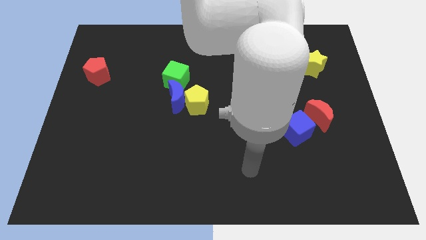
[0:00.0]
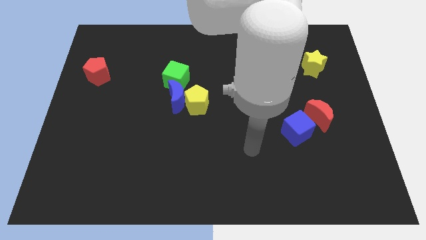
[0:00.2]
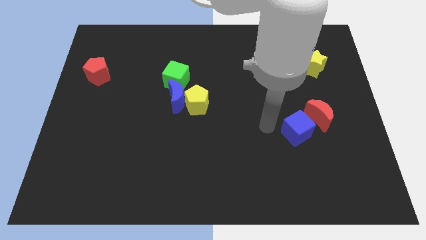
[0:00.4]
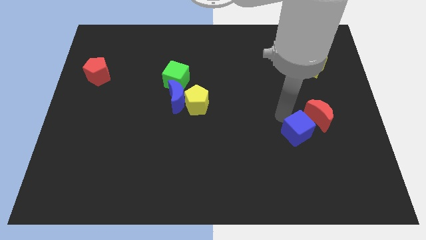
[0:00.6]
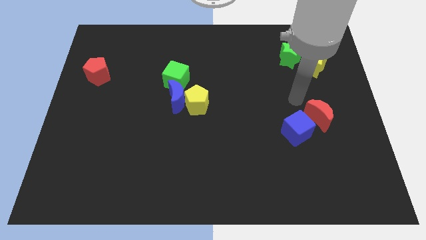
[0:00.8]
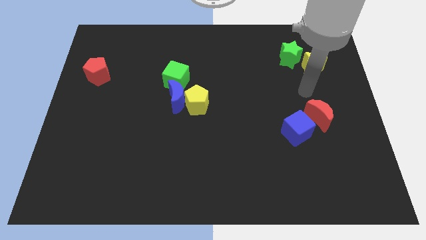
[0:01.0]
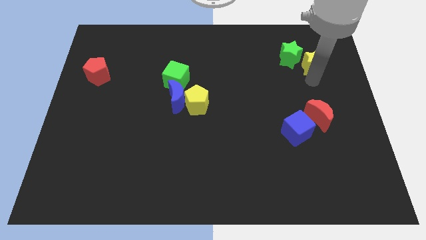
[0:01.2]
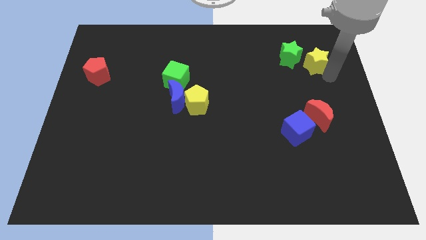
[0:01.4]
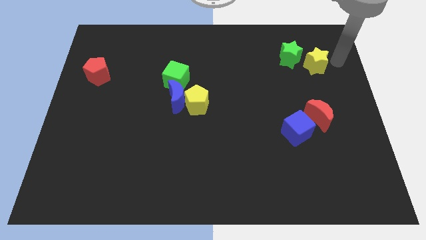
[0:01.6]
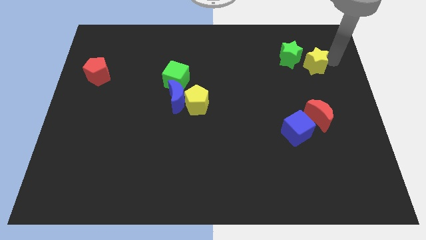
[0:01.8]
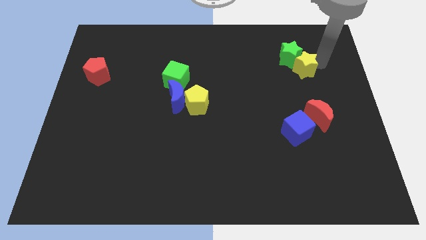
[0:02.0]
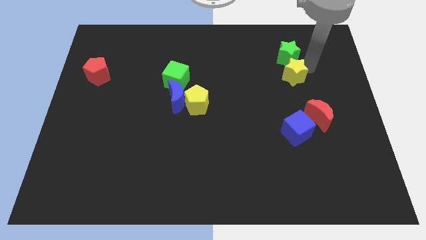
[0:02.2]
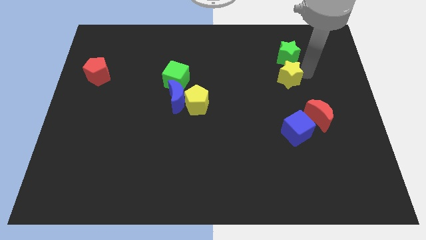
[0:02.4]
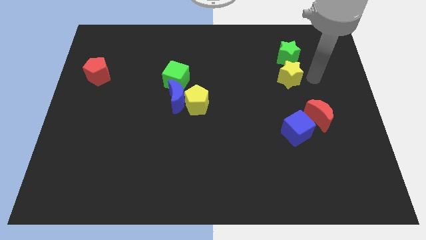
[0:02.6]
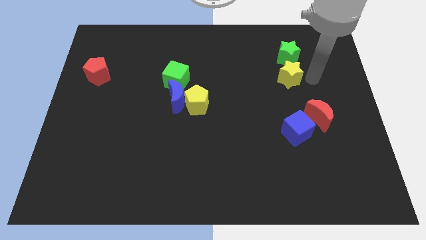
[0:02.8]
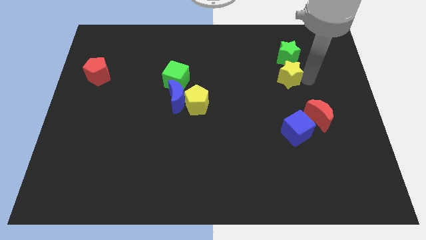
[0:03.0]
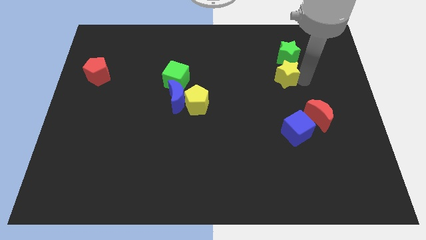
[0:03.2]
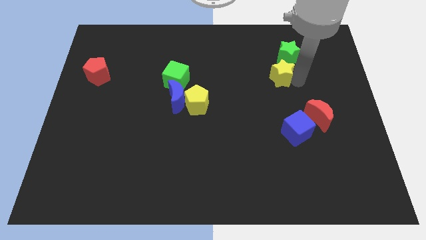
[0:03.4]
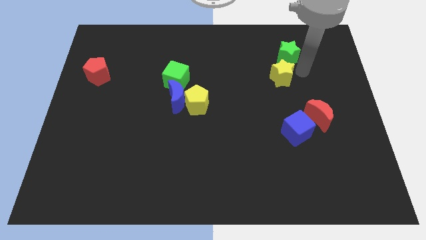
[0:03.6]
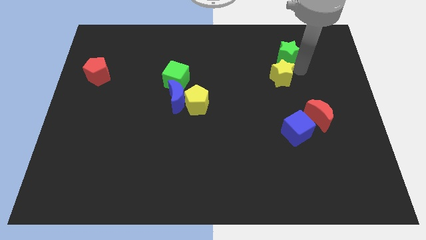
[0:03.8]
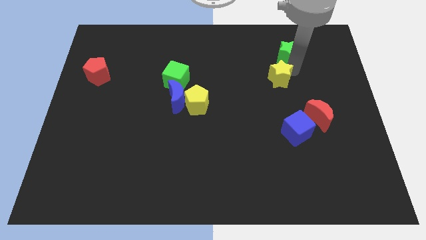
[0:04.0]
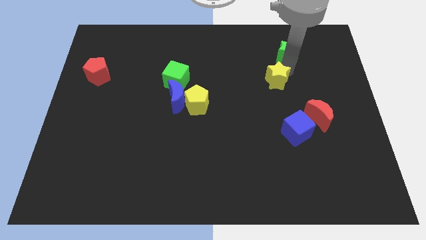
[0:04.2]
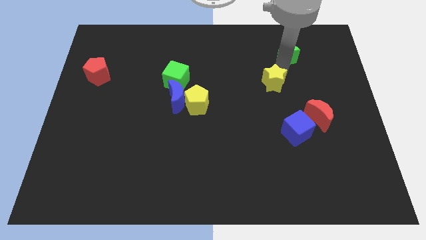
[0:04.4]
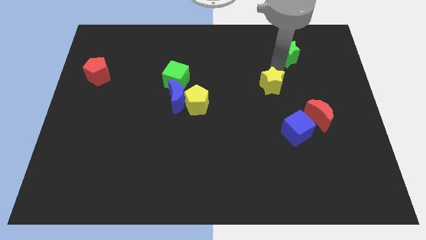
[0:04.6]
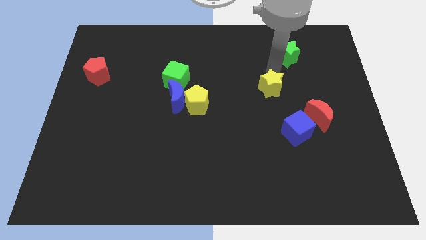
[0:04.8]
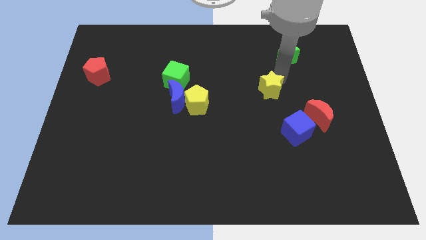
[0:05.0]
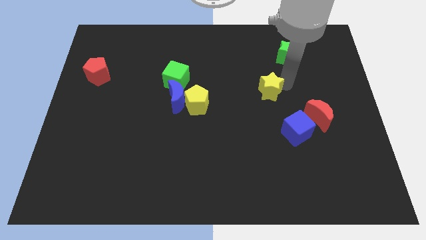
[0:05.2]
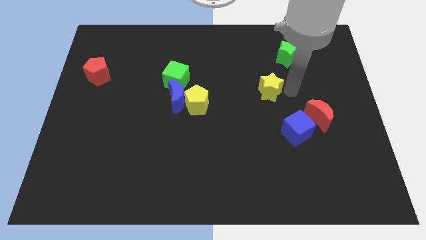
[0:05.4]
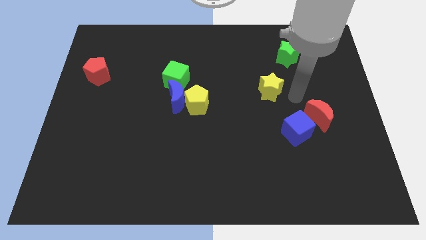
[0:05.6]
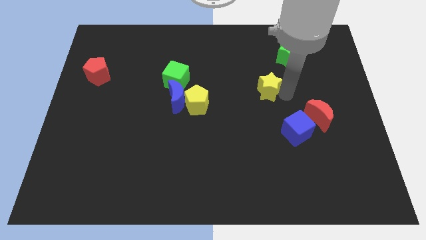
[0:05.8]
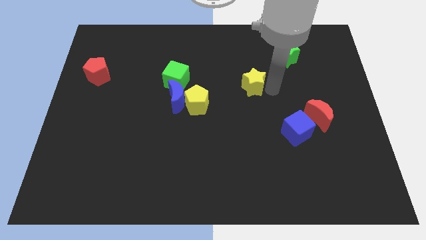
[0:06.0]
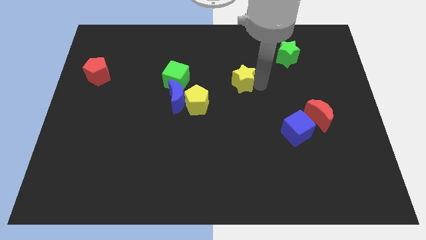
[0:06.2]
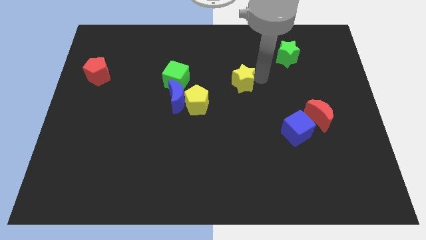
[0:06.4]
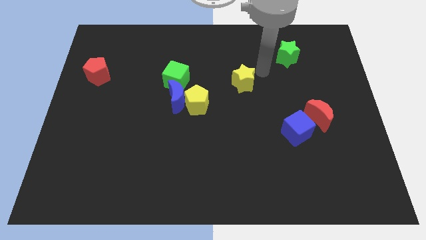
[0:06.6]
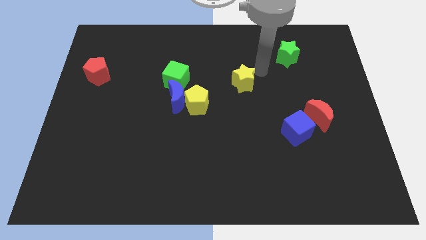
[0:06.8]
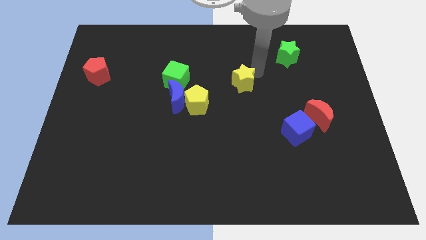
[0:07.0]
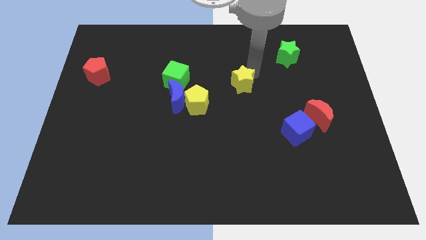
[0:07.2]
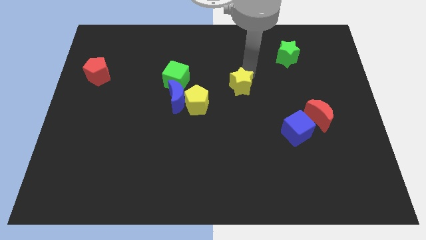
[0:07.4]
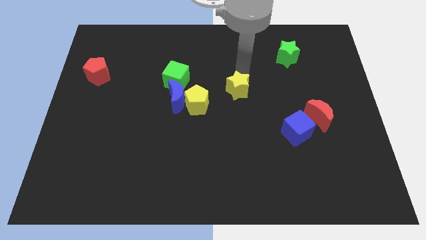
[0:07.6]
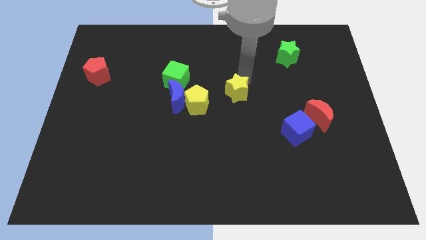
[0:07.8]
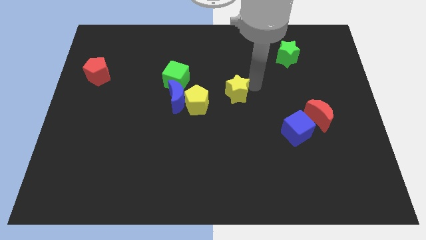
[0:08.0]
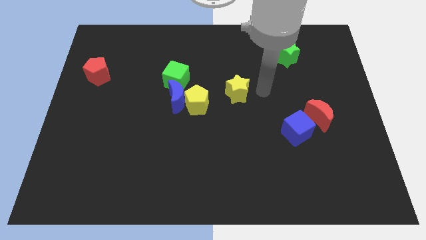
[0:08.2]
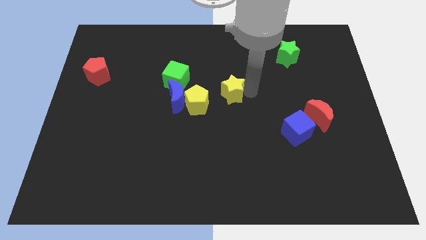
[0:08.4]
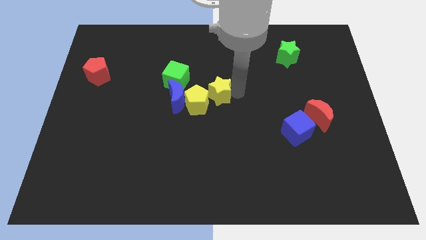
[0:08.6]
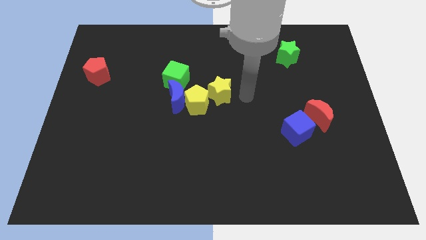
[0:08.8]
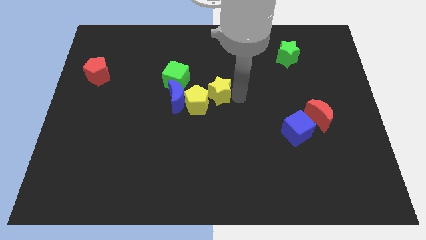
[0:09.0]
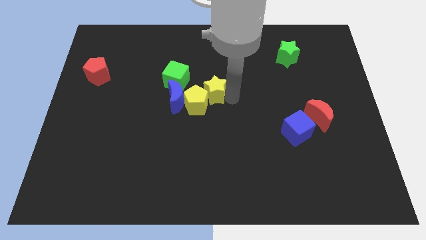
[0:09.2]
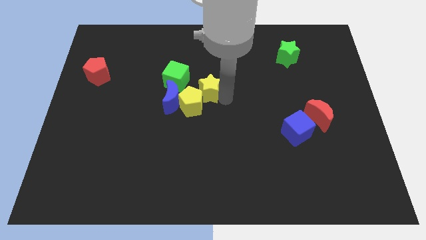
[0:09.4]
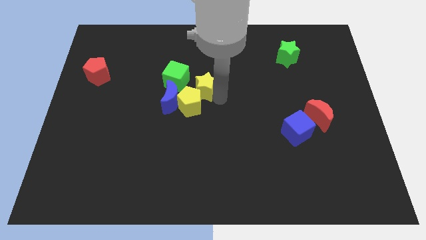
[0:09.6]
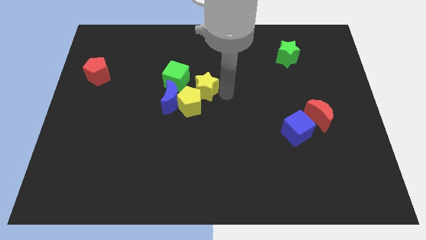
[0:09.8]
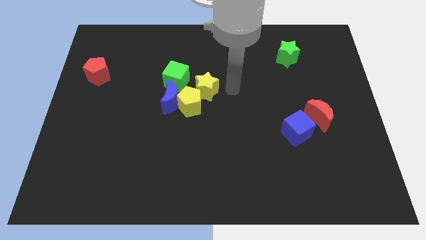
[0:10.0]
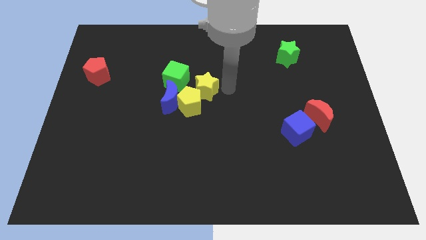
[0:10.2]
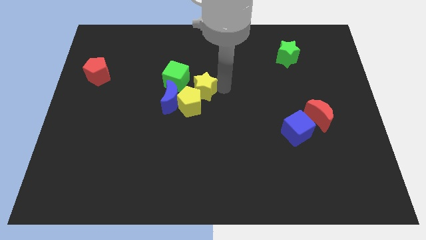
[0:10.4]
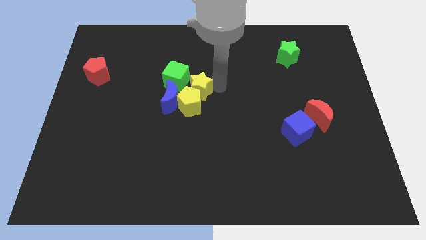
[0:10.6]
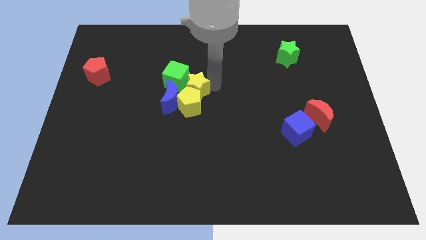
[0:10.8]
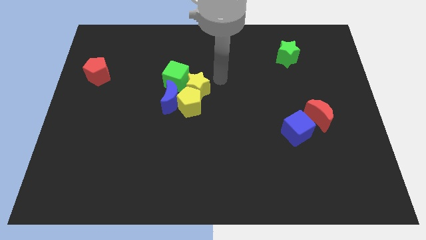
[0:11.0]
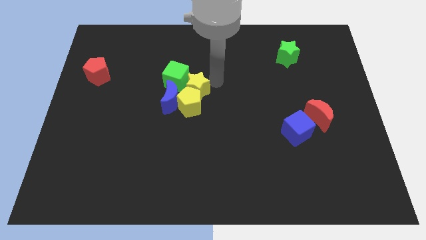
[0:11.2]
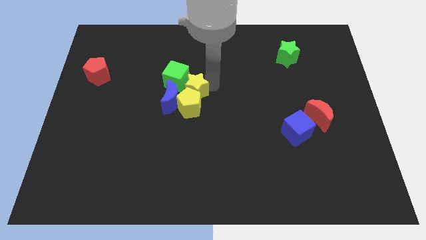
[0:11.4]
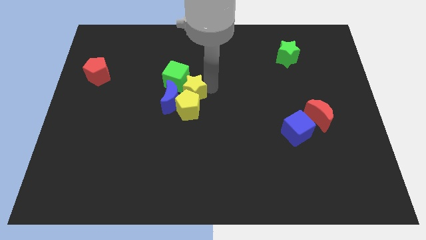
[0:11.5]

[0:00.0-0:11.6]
push the yellow star towards the blue moon

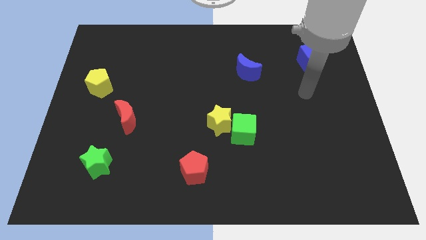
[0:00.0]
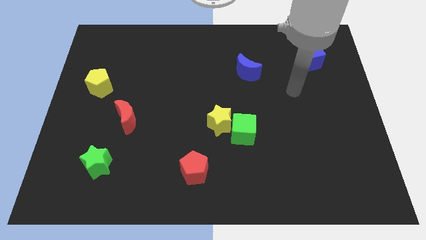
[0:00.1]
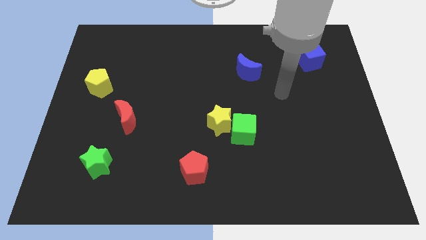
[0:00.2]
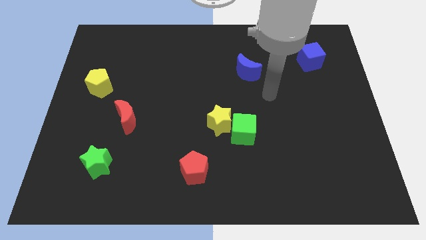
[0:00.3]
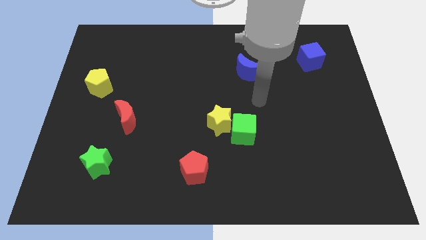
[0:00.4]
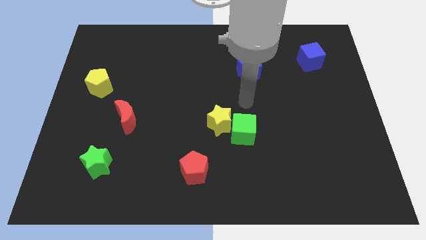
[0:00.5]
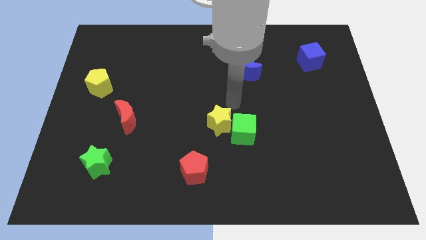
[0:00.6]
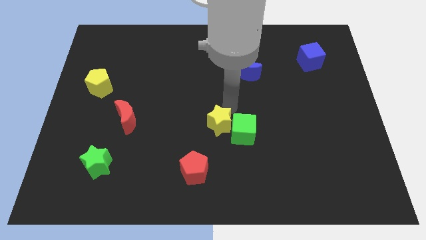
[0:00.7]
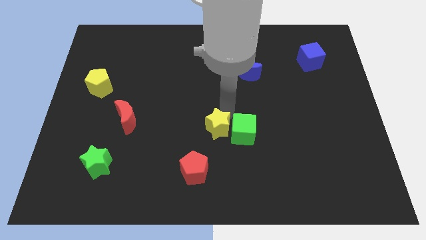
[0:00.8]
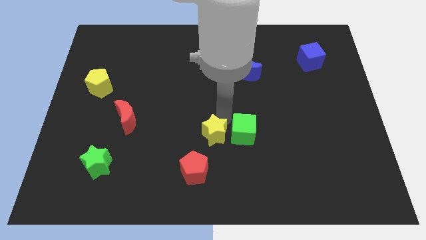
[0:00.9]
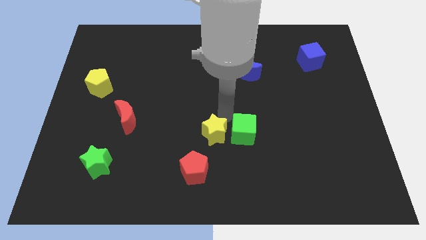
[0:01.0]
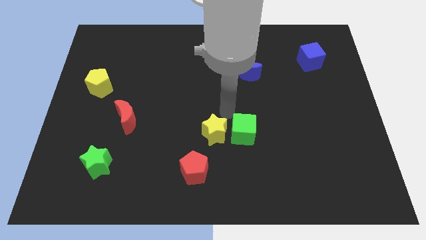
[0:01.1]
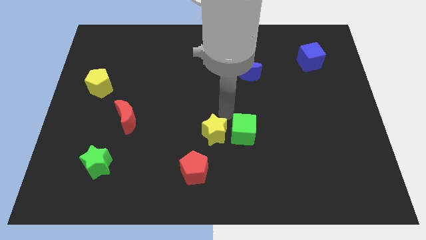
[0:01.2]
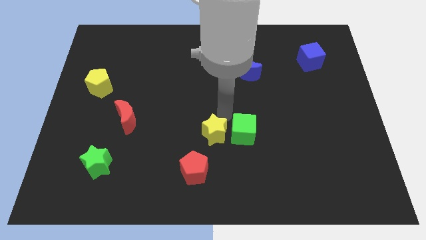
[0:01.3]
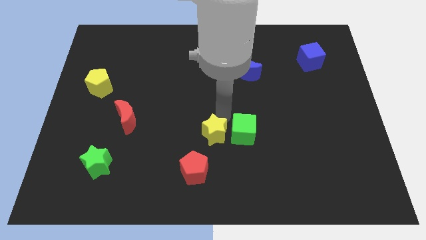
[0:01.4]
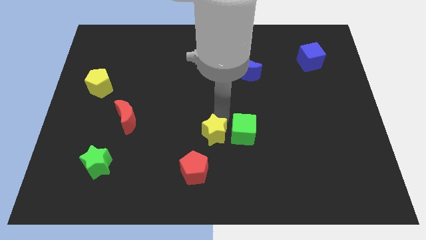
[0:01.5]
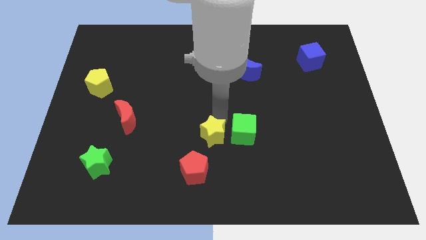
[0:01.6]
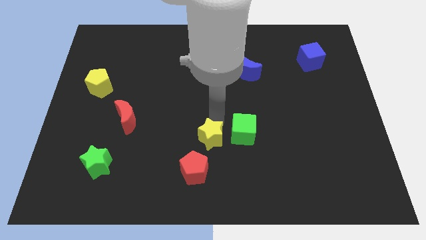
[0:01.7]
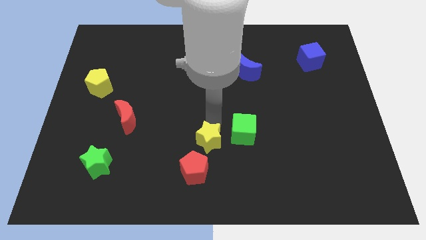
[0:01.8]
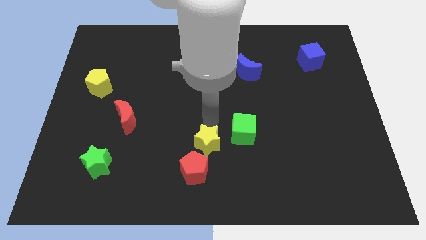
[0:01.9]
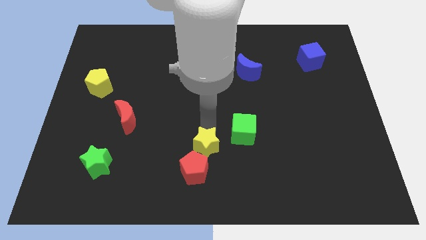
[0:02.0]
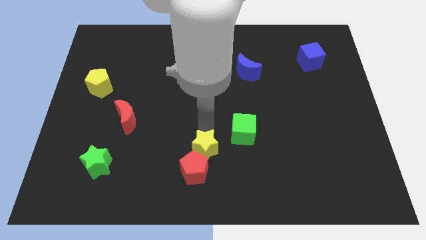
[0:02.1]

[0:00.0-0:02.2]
slide the yellow star towards the red pentagon
